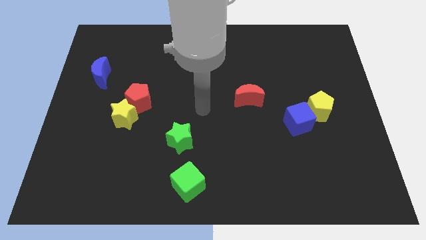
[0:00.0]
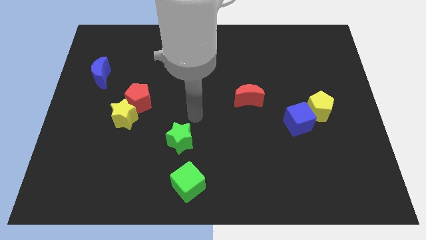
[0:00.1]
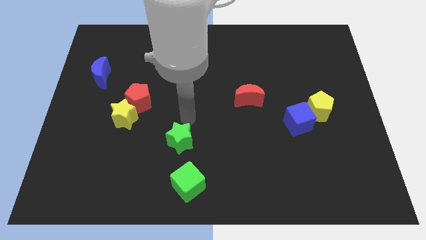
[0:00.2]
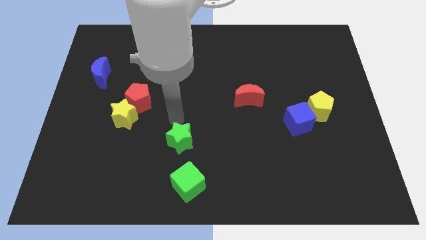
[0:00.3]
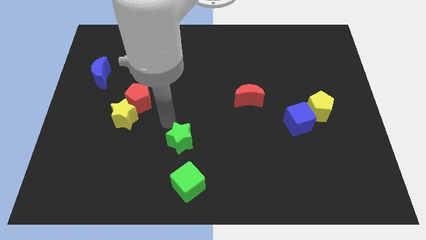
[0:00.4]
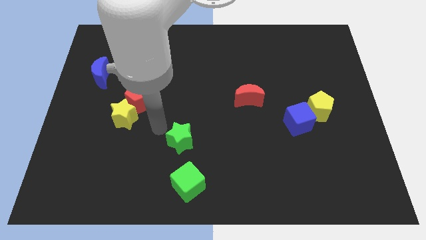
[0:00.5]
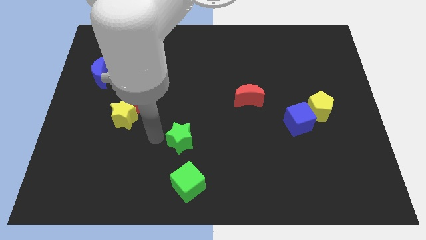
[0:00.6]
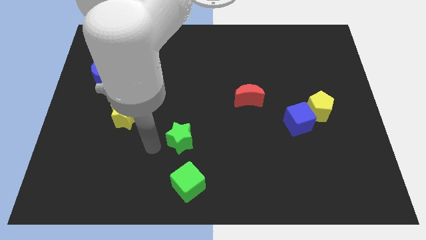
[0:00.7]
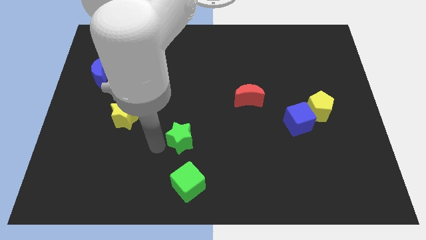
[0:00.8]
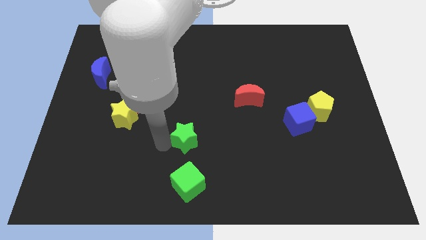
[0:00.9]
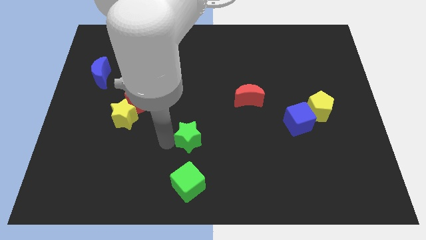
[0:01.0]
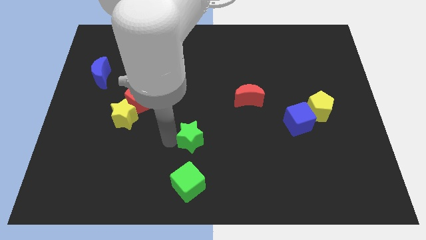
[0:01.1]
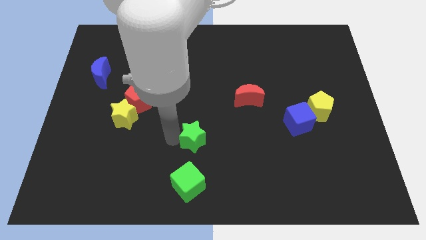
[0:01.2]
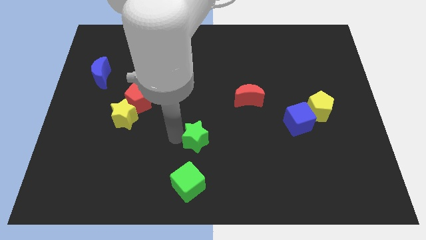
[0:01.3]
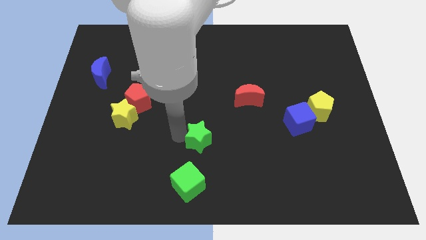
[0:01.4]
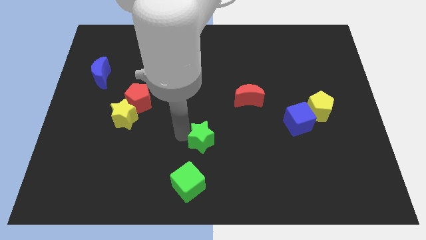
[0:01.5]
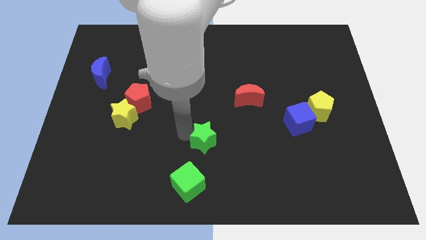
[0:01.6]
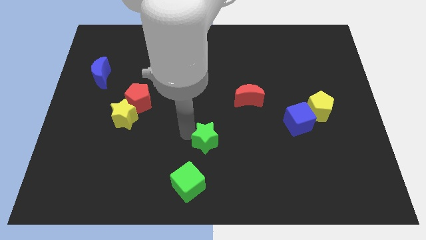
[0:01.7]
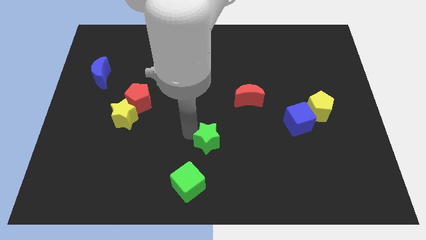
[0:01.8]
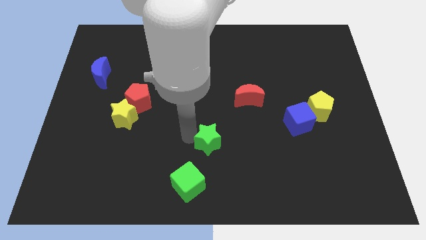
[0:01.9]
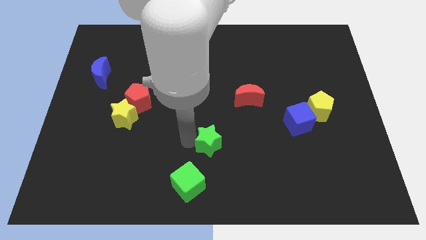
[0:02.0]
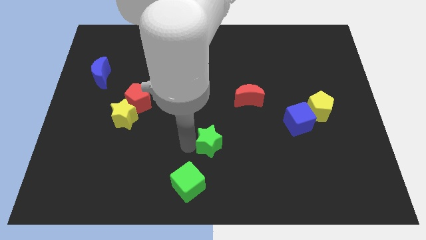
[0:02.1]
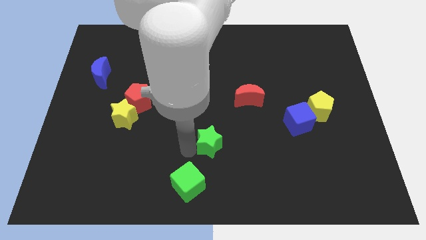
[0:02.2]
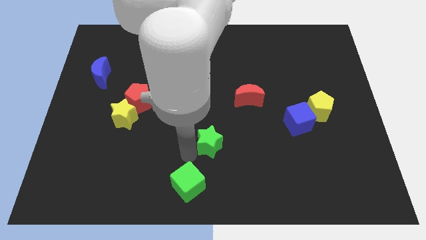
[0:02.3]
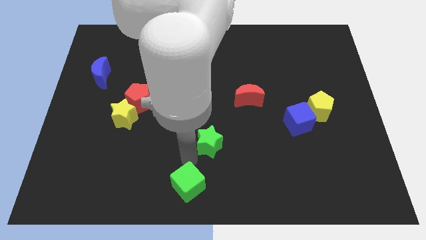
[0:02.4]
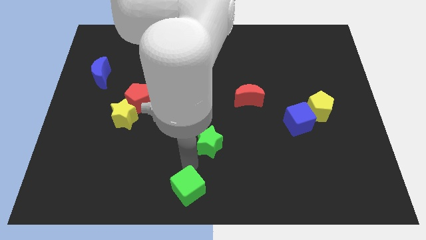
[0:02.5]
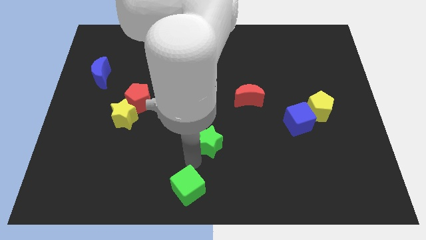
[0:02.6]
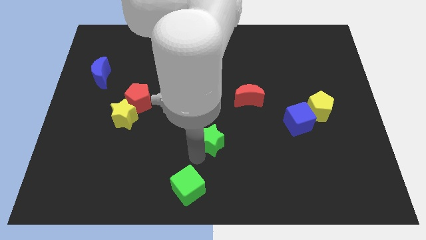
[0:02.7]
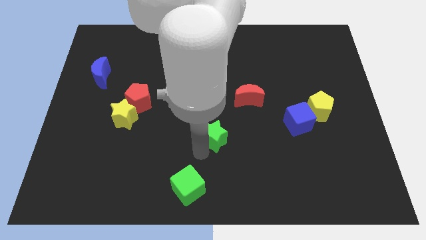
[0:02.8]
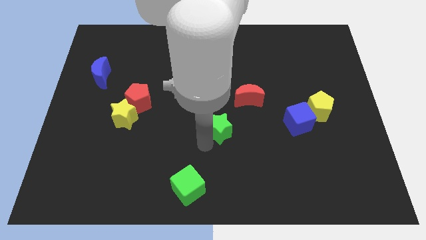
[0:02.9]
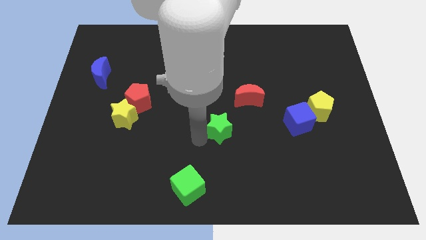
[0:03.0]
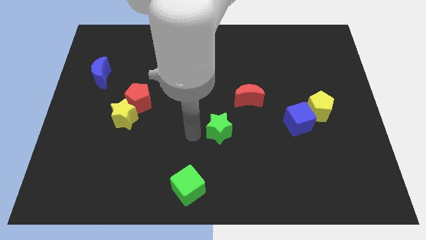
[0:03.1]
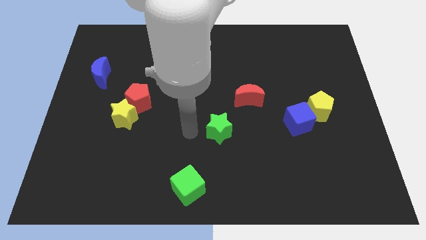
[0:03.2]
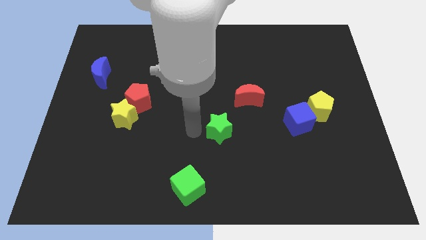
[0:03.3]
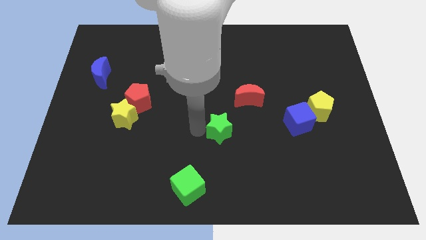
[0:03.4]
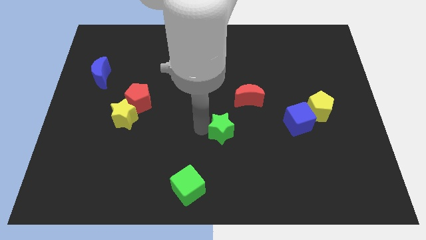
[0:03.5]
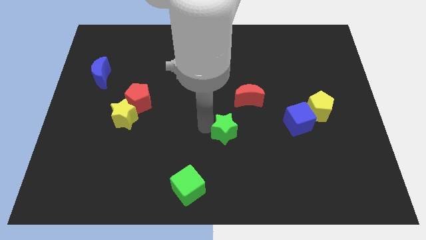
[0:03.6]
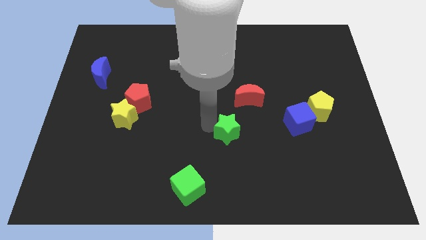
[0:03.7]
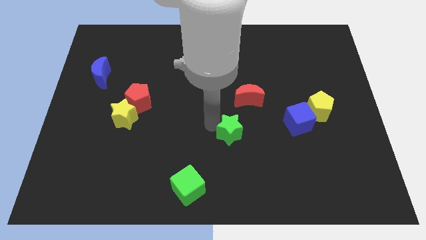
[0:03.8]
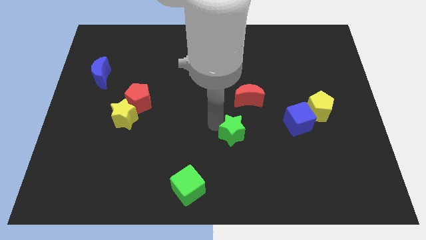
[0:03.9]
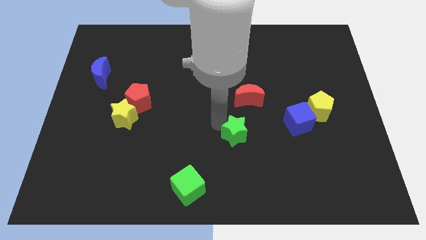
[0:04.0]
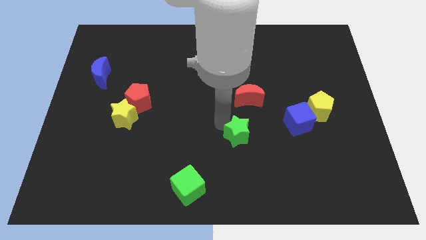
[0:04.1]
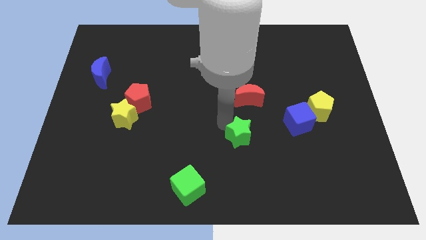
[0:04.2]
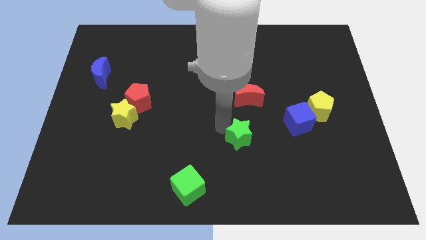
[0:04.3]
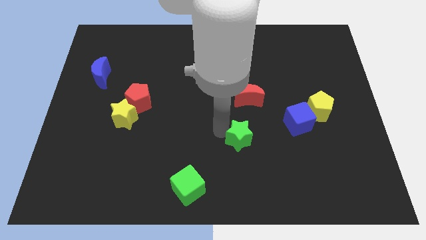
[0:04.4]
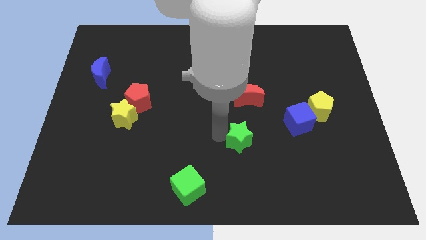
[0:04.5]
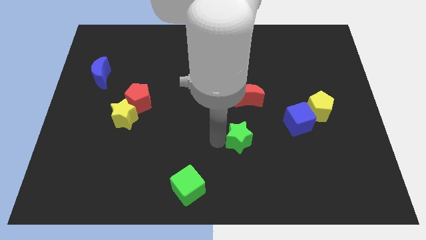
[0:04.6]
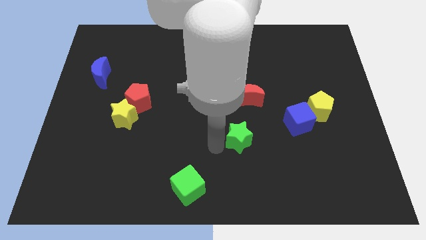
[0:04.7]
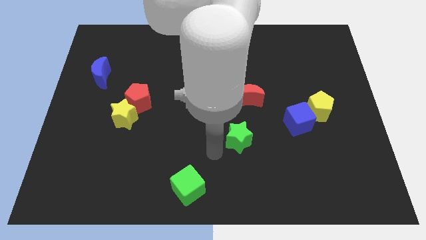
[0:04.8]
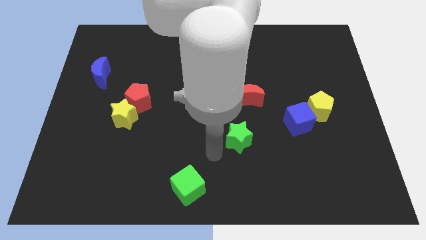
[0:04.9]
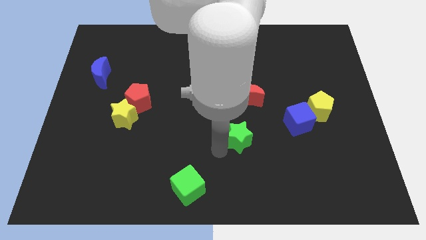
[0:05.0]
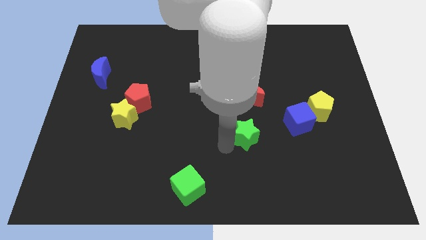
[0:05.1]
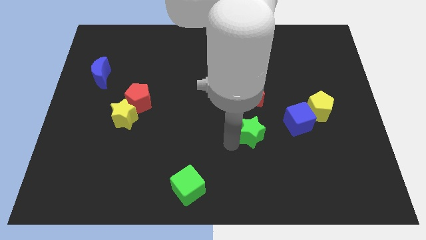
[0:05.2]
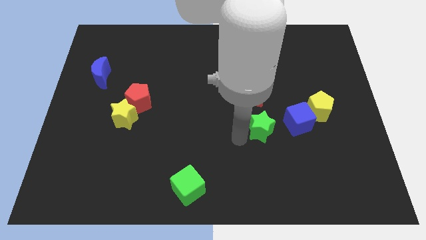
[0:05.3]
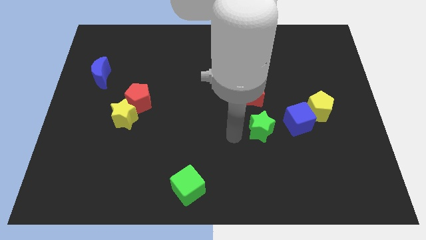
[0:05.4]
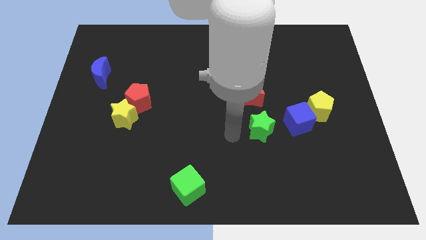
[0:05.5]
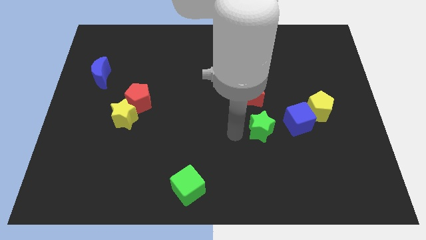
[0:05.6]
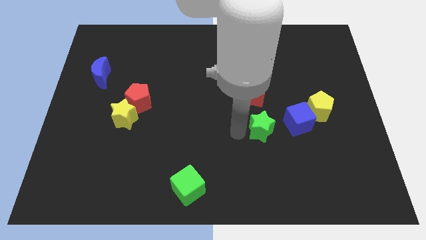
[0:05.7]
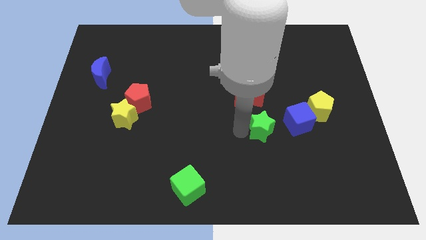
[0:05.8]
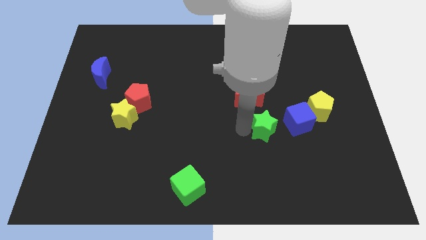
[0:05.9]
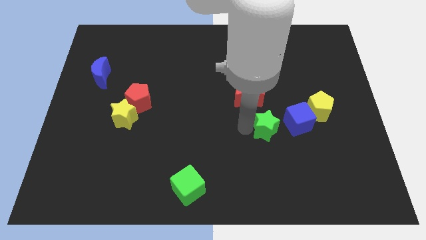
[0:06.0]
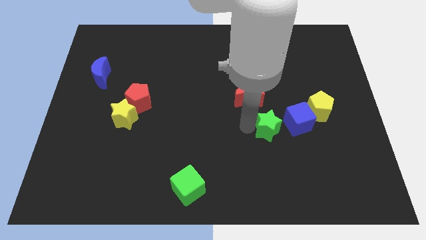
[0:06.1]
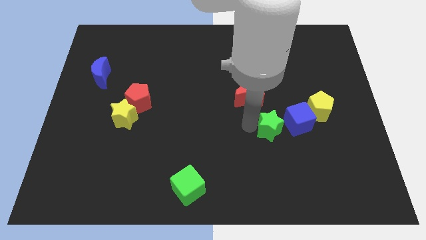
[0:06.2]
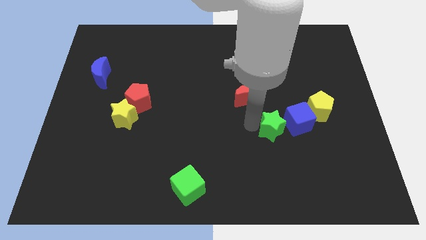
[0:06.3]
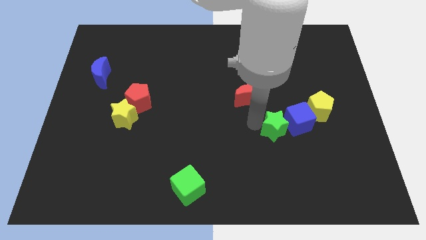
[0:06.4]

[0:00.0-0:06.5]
slide the green star next to the blue cube
